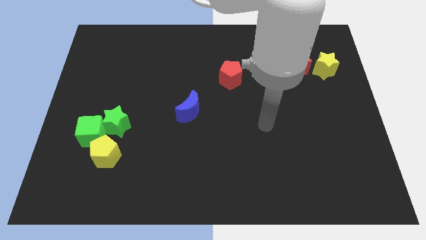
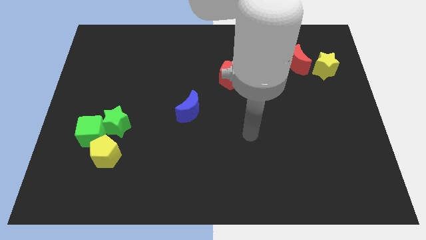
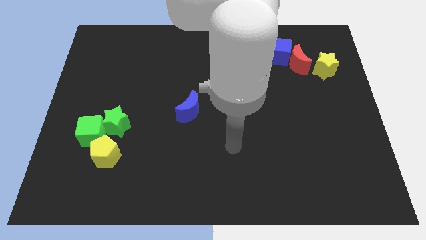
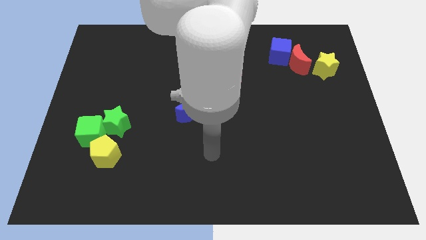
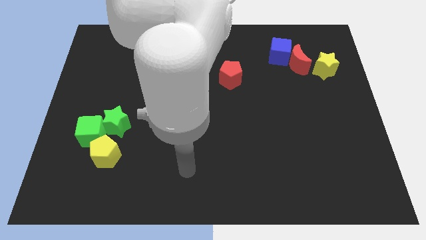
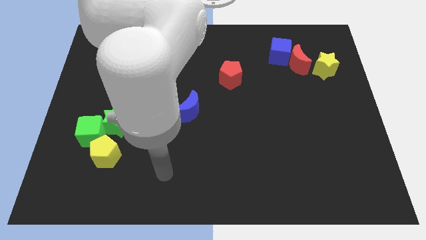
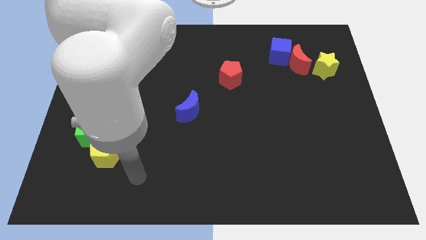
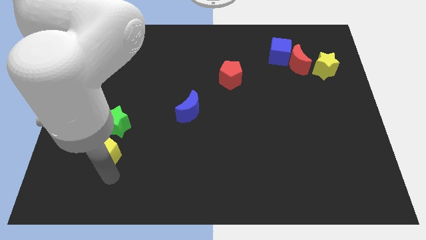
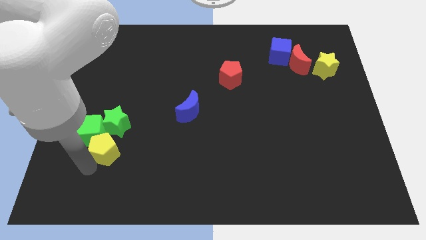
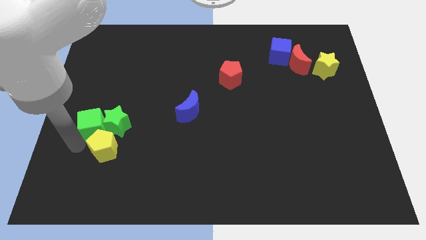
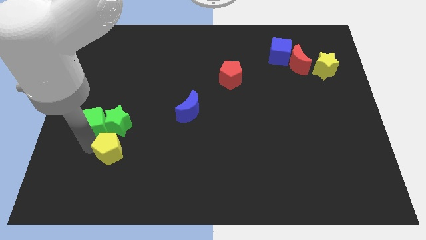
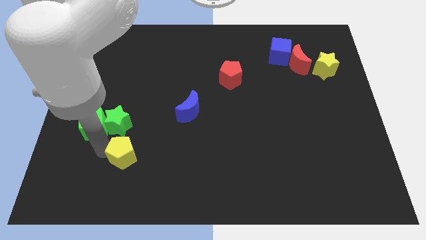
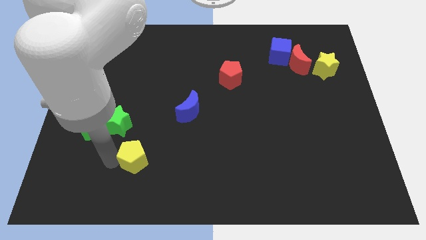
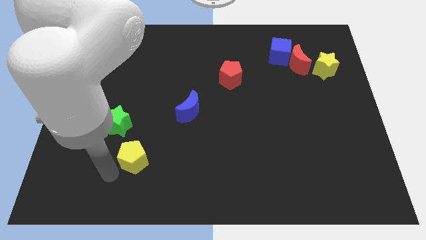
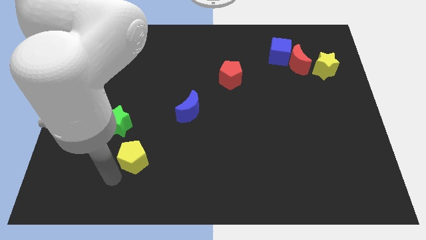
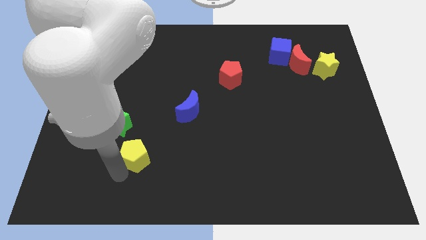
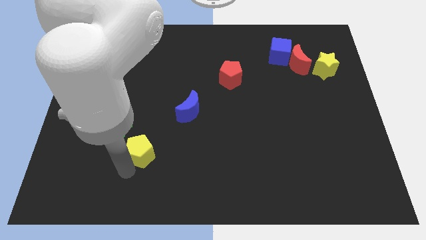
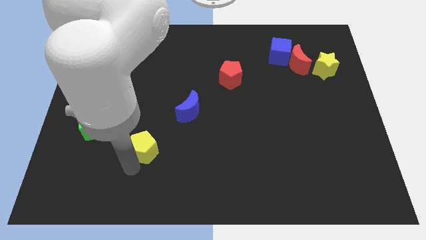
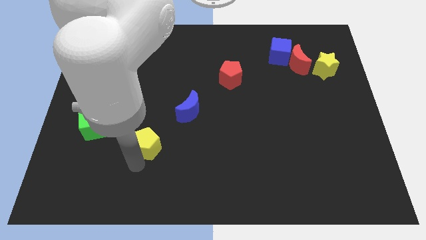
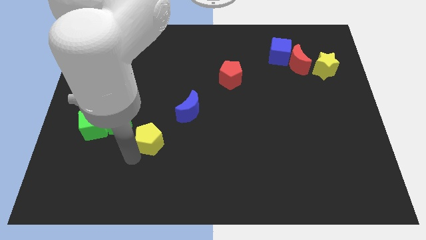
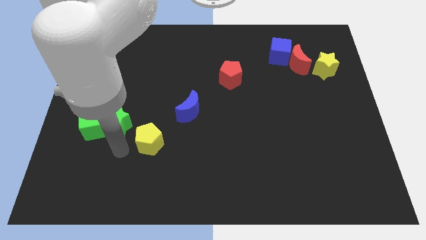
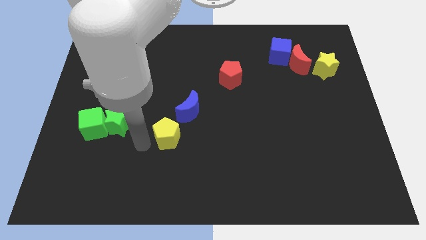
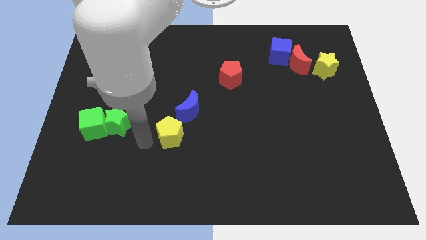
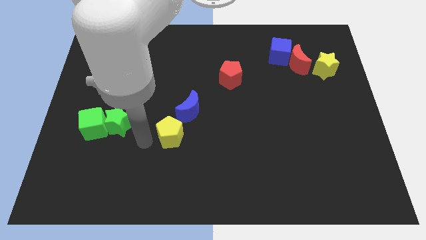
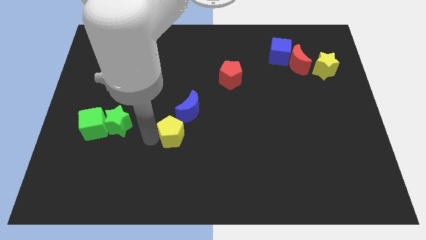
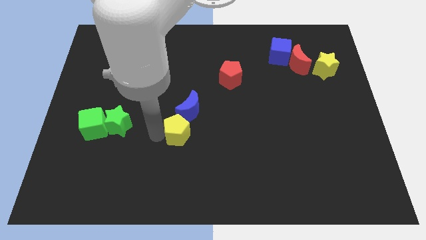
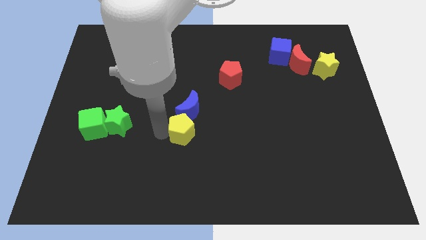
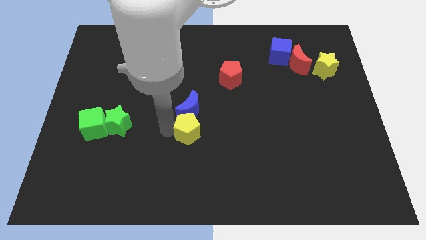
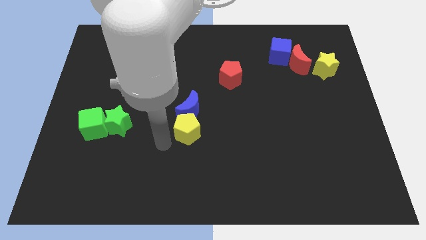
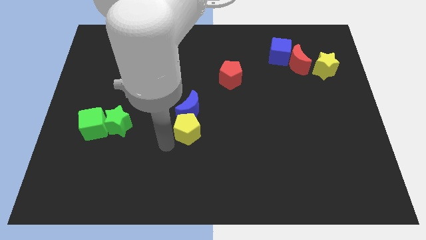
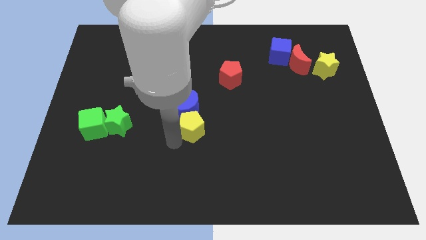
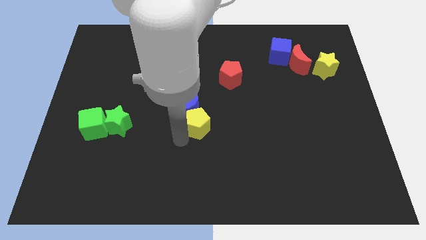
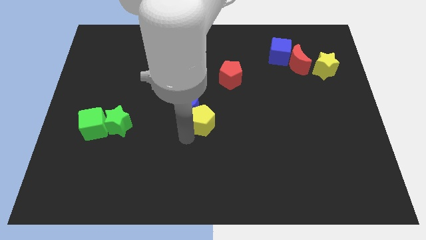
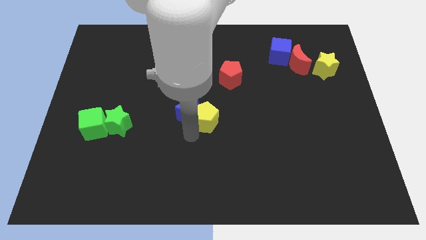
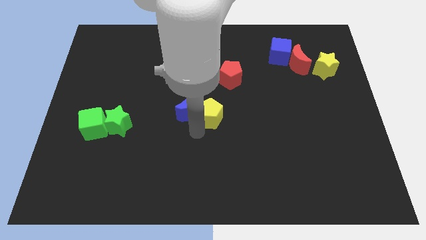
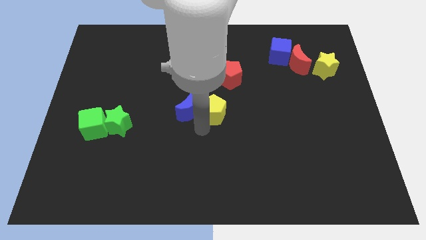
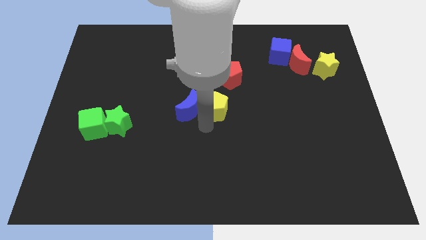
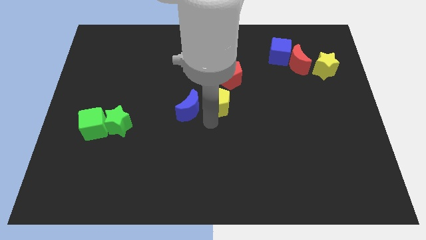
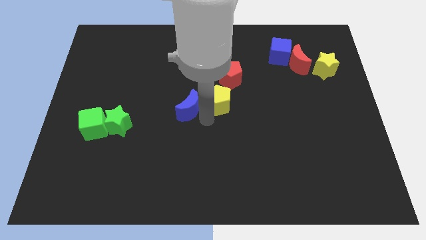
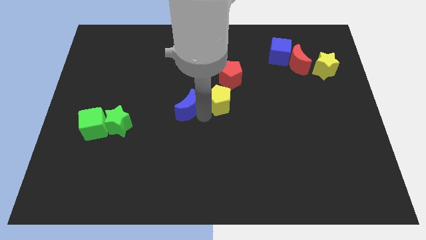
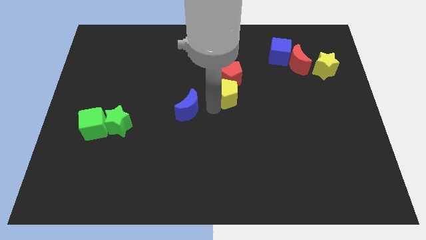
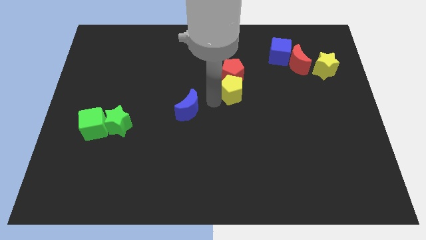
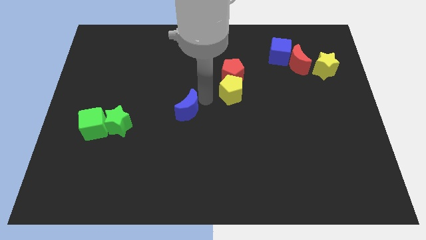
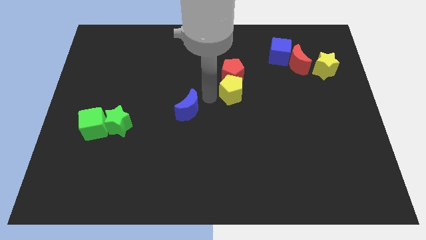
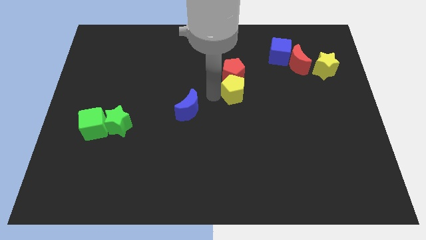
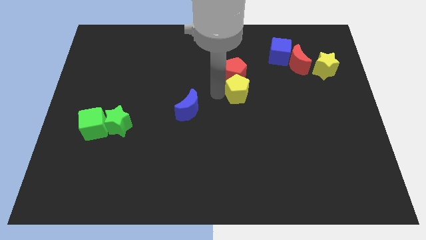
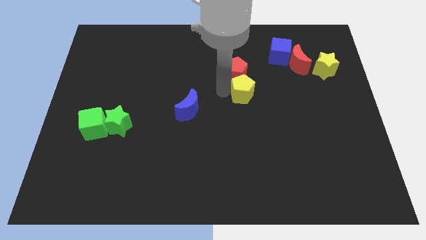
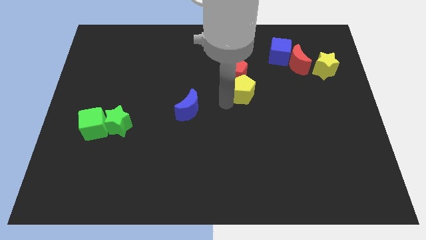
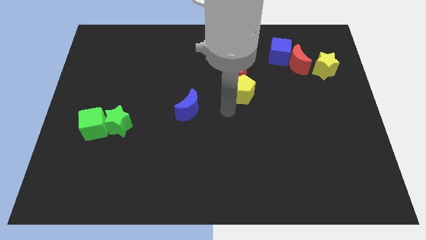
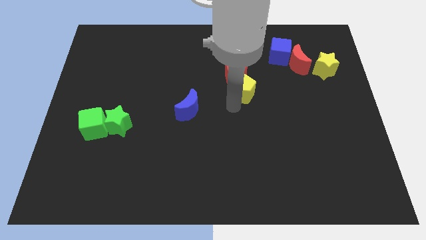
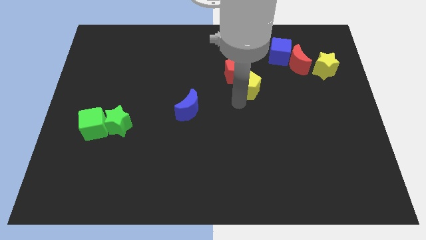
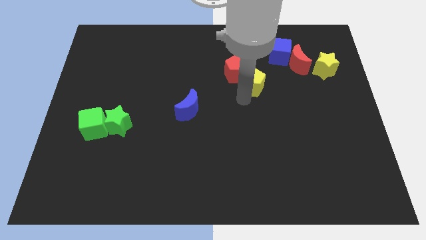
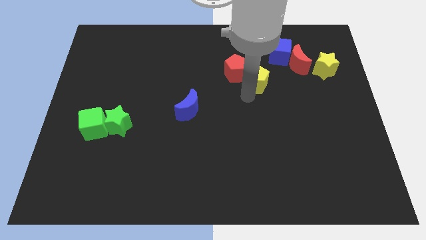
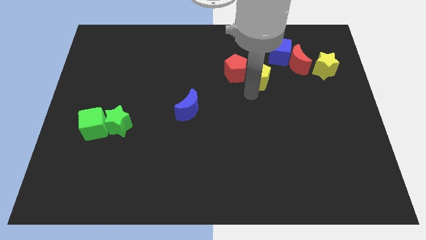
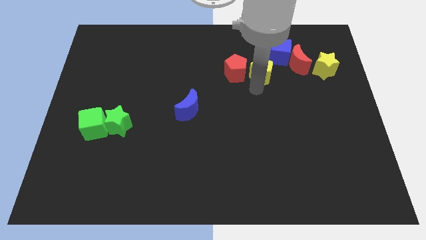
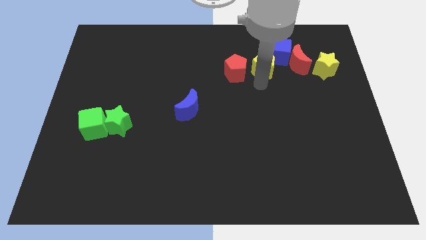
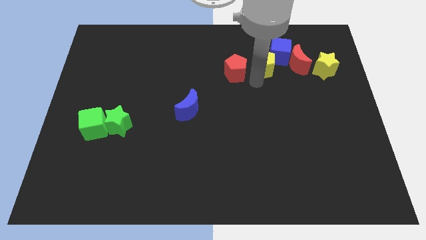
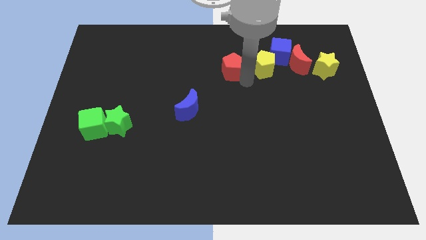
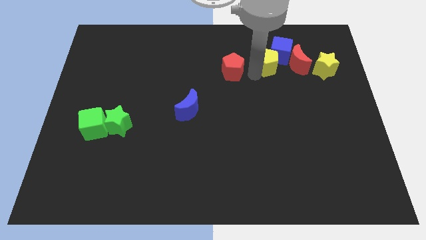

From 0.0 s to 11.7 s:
push the yellow pentagon to the blue cube
